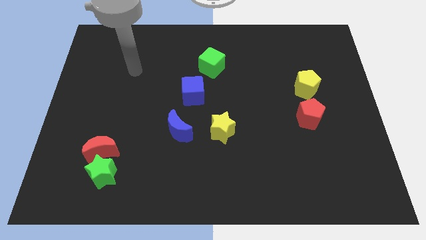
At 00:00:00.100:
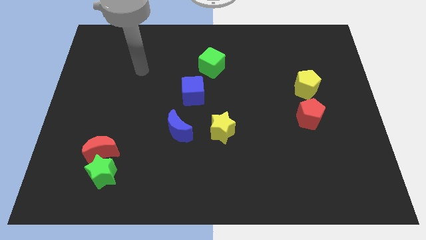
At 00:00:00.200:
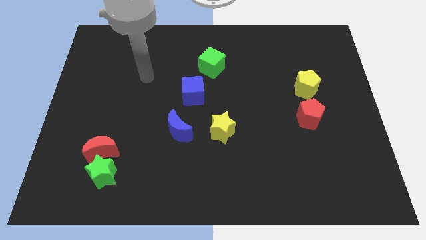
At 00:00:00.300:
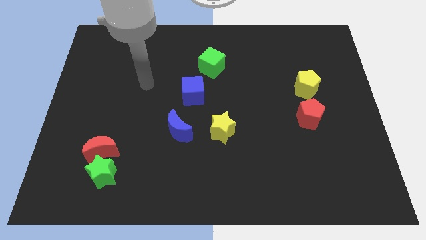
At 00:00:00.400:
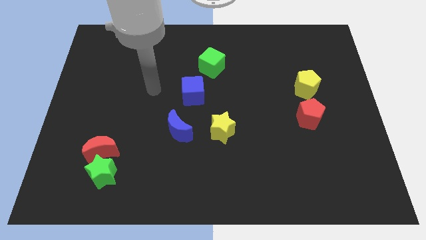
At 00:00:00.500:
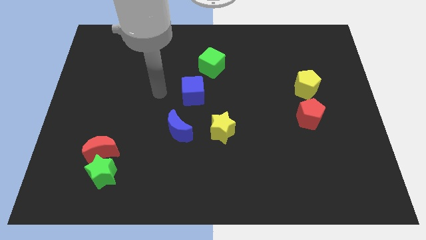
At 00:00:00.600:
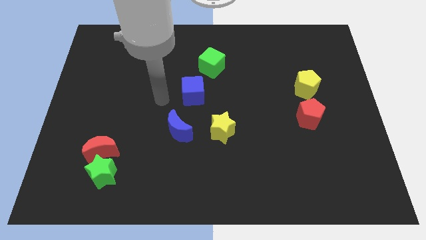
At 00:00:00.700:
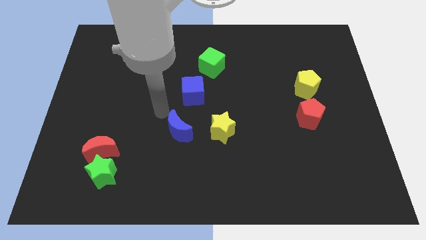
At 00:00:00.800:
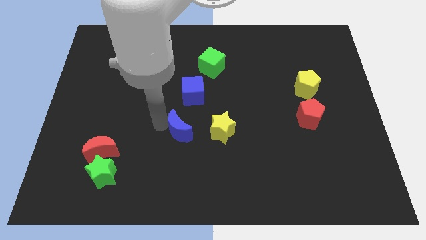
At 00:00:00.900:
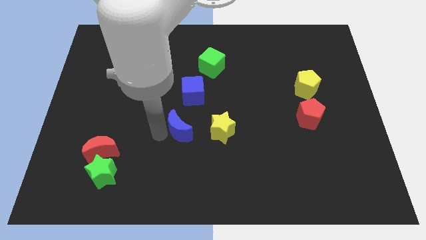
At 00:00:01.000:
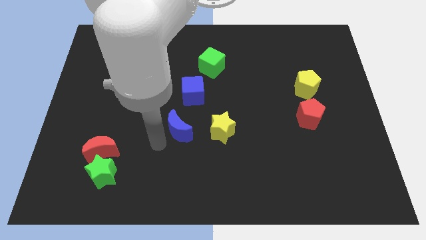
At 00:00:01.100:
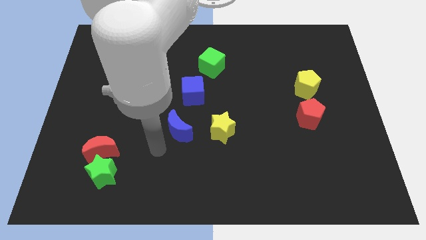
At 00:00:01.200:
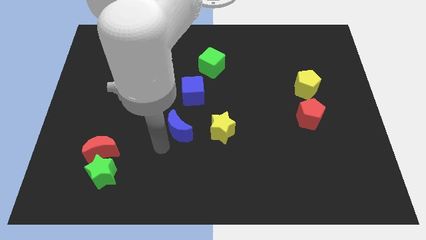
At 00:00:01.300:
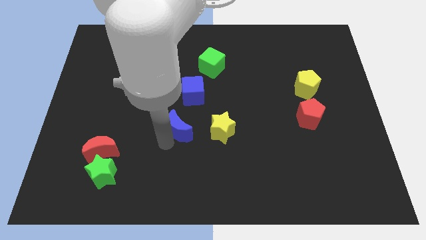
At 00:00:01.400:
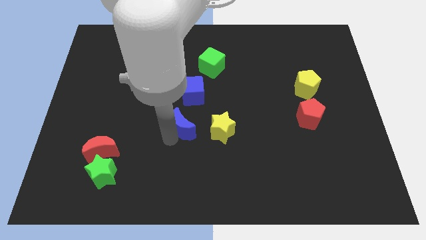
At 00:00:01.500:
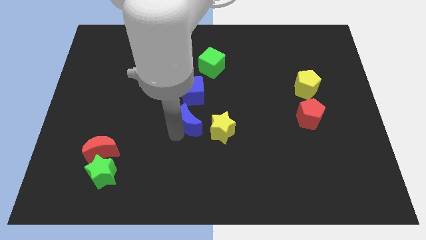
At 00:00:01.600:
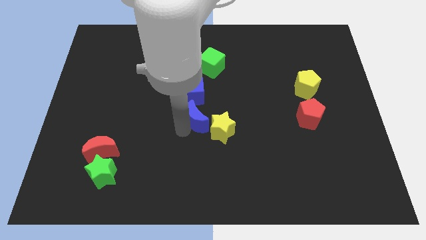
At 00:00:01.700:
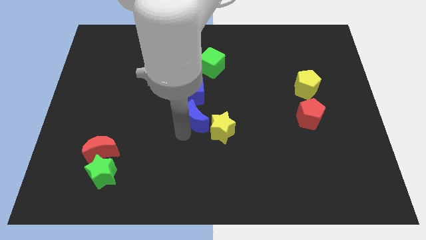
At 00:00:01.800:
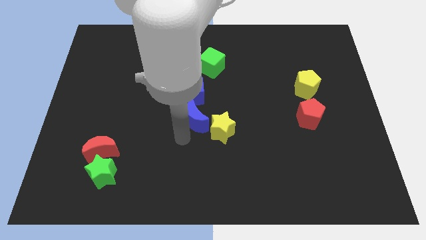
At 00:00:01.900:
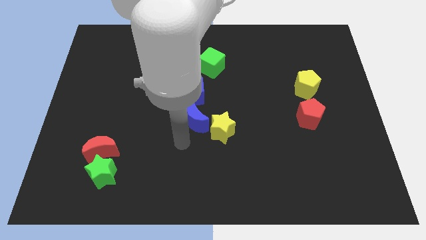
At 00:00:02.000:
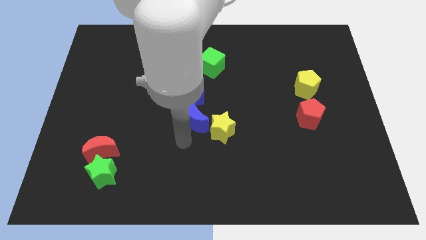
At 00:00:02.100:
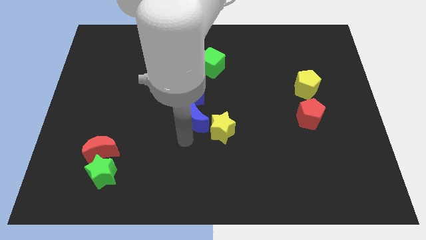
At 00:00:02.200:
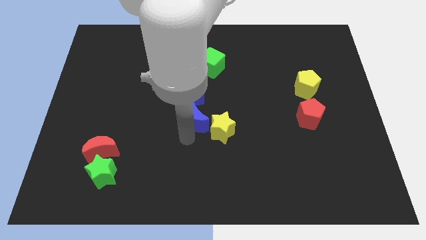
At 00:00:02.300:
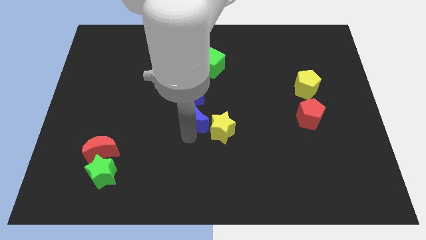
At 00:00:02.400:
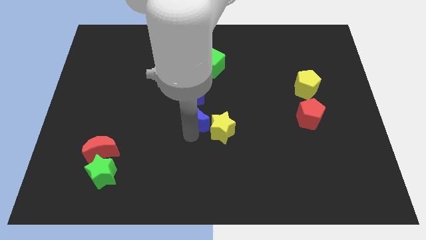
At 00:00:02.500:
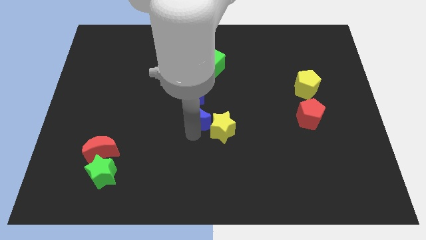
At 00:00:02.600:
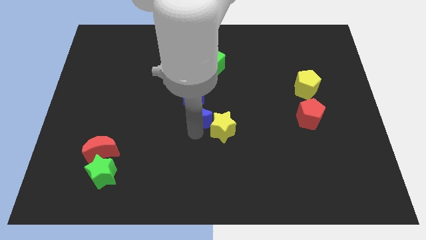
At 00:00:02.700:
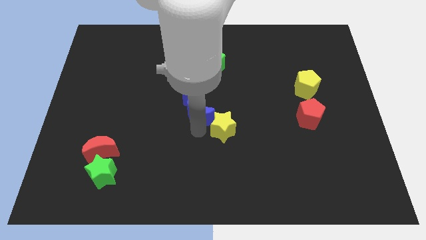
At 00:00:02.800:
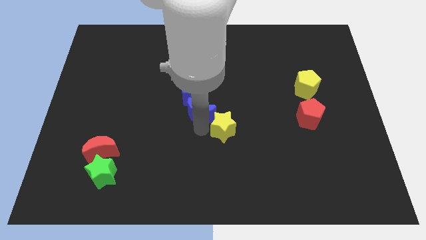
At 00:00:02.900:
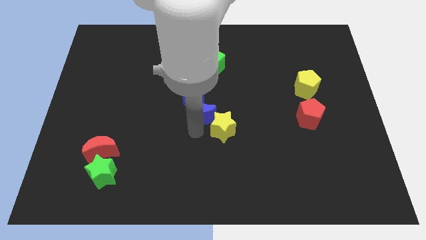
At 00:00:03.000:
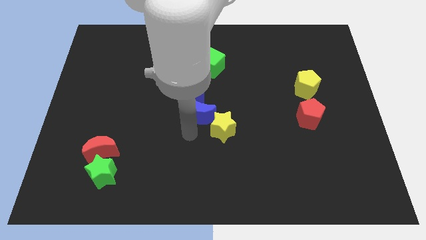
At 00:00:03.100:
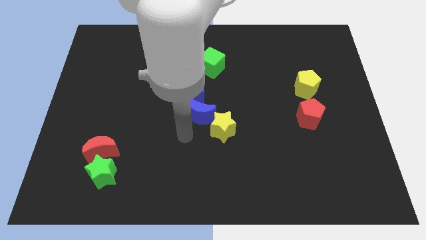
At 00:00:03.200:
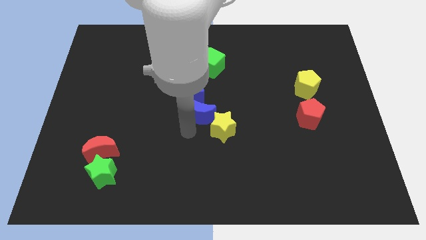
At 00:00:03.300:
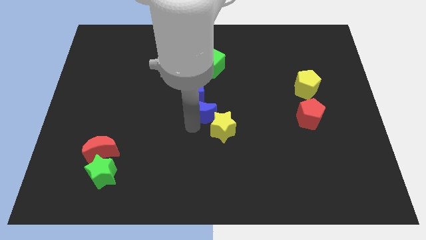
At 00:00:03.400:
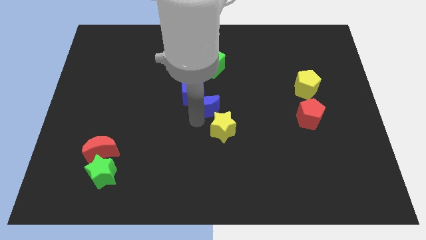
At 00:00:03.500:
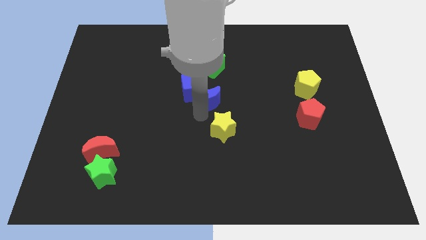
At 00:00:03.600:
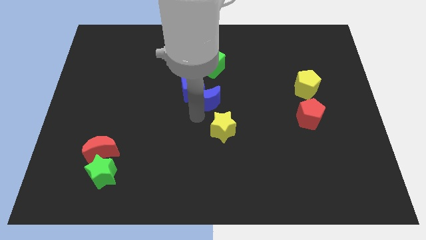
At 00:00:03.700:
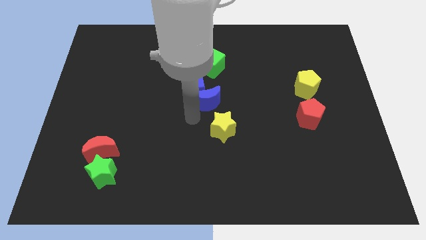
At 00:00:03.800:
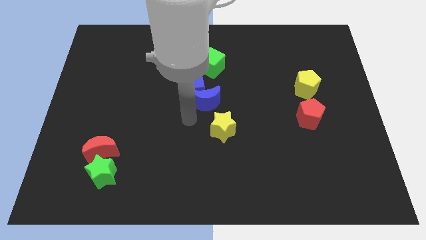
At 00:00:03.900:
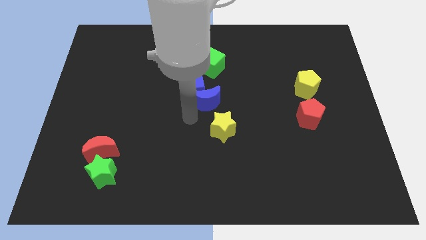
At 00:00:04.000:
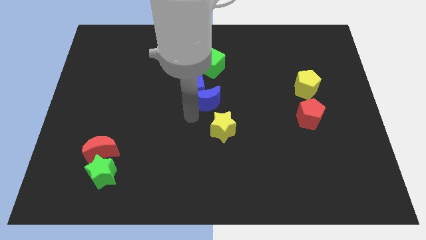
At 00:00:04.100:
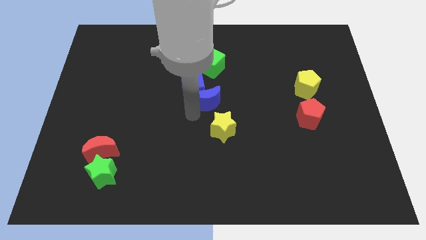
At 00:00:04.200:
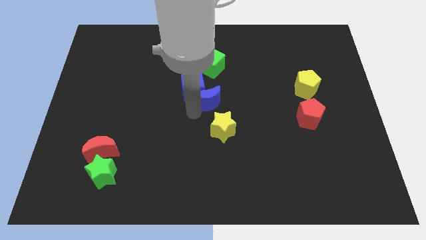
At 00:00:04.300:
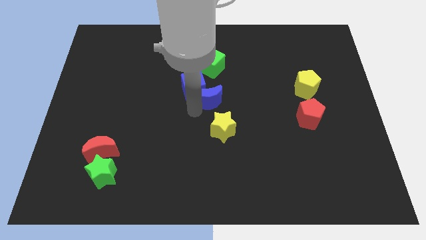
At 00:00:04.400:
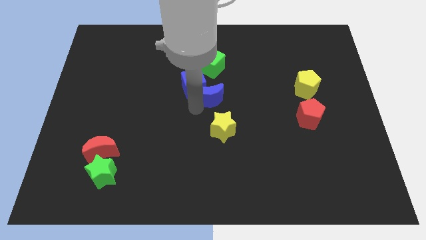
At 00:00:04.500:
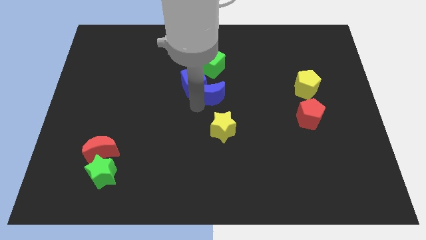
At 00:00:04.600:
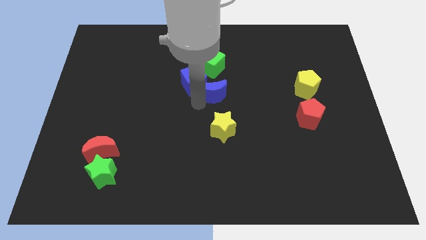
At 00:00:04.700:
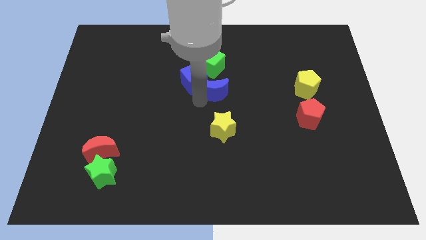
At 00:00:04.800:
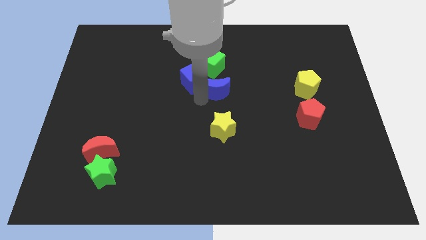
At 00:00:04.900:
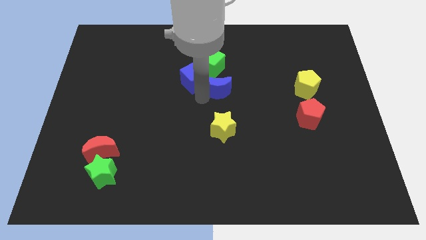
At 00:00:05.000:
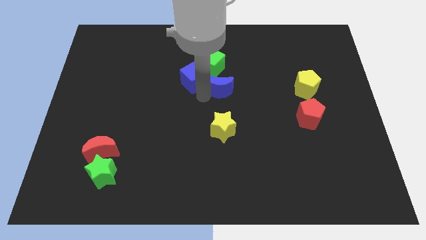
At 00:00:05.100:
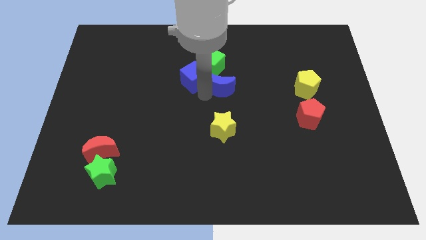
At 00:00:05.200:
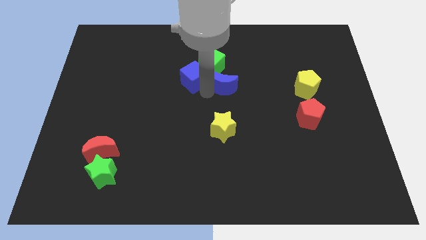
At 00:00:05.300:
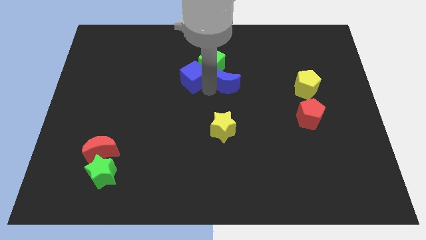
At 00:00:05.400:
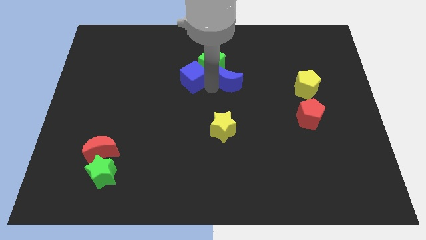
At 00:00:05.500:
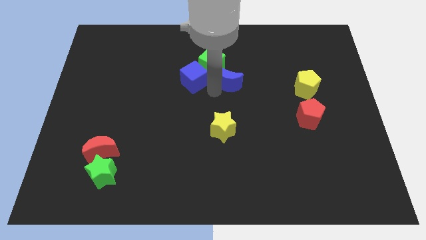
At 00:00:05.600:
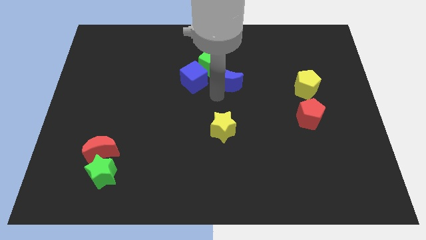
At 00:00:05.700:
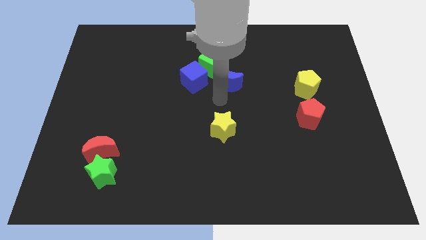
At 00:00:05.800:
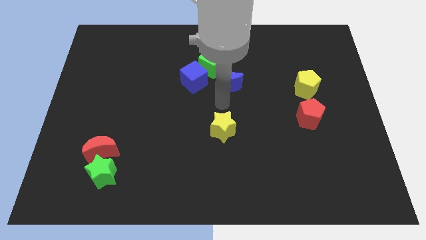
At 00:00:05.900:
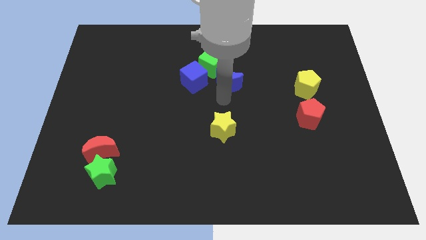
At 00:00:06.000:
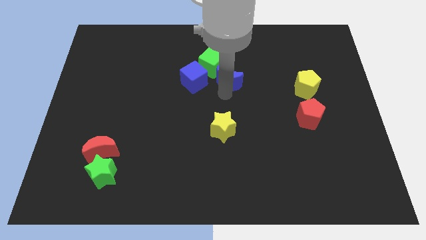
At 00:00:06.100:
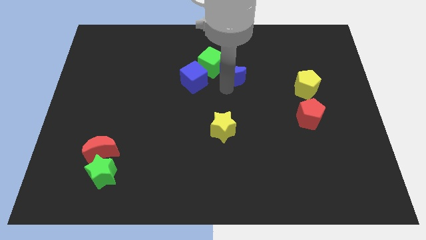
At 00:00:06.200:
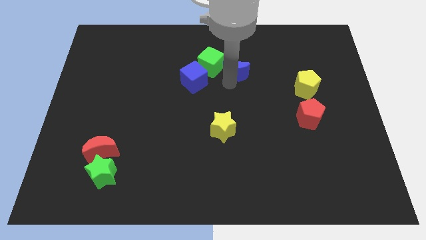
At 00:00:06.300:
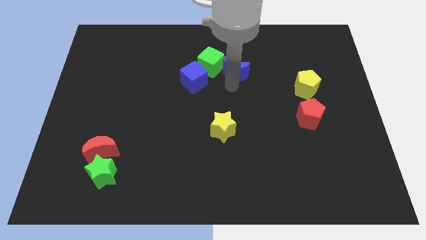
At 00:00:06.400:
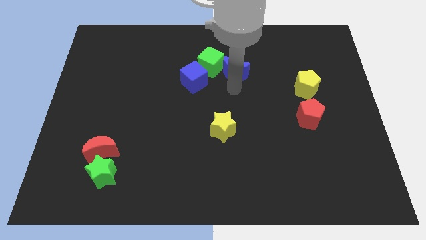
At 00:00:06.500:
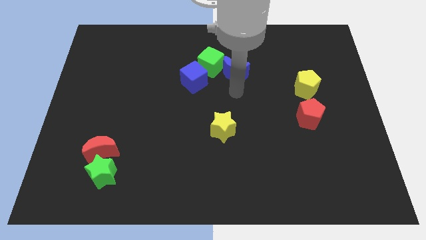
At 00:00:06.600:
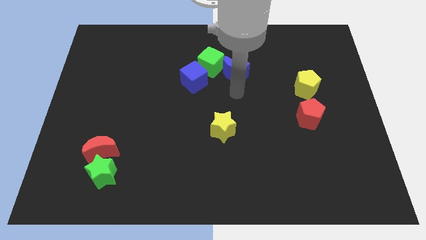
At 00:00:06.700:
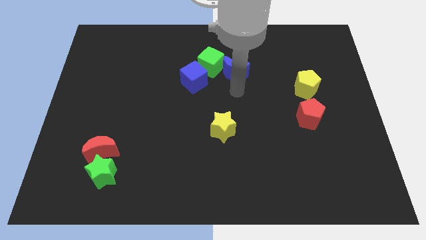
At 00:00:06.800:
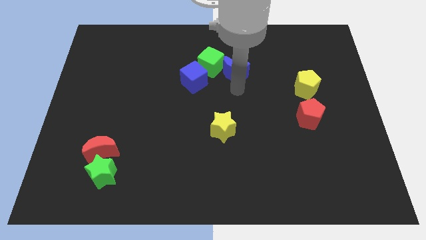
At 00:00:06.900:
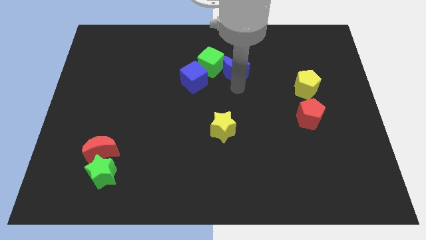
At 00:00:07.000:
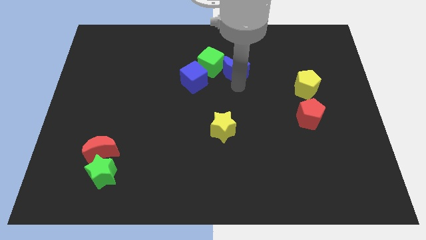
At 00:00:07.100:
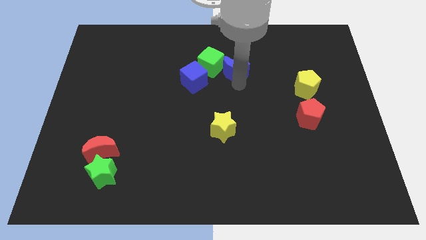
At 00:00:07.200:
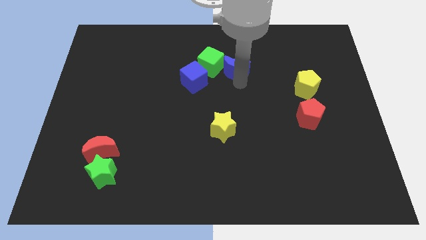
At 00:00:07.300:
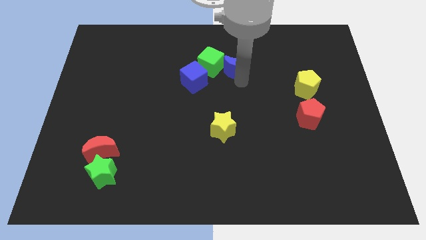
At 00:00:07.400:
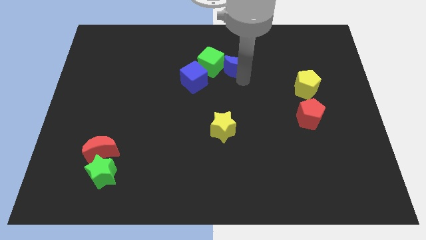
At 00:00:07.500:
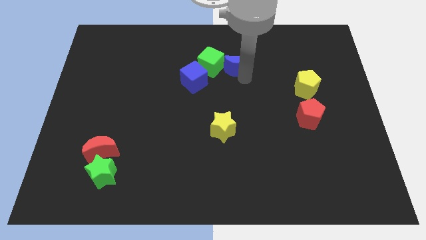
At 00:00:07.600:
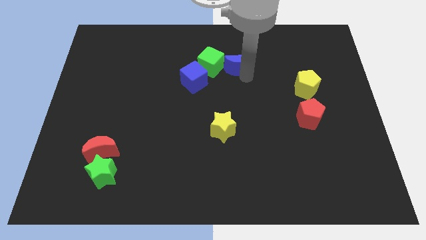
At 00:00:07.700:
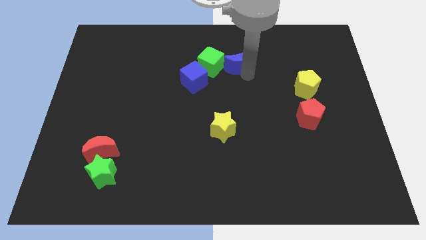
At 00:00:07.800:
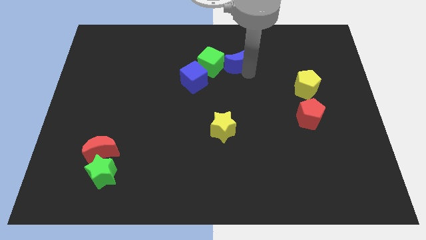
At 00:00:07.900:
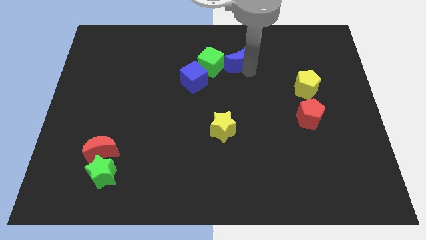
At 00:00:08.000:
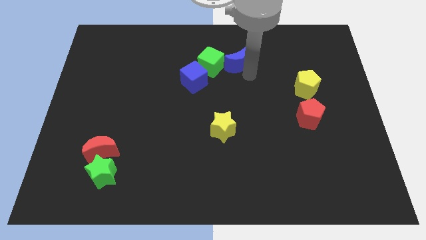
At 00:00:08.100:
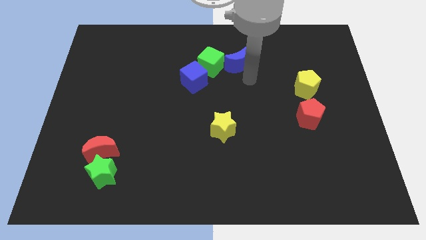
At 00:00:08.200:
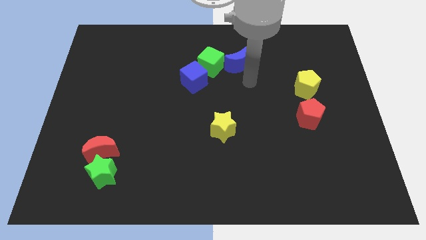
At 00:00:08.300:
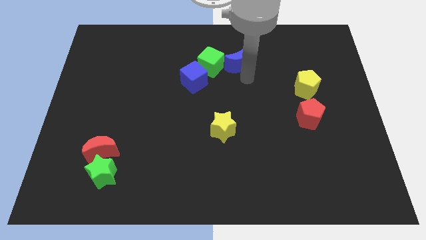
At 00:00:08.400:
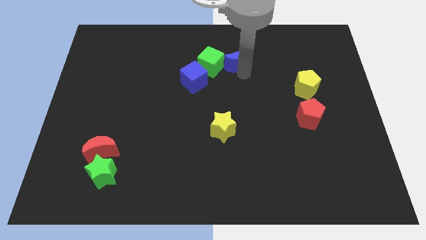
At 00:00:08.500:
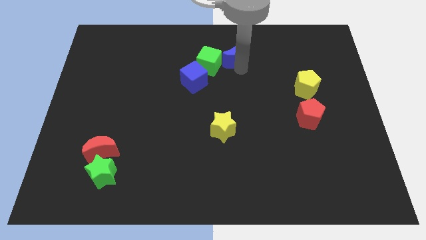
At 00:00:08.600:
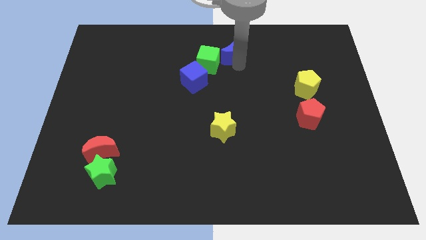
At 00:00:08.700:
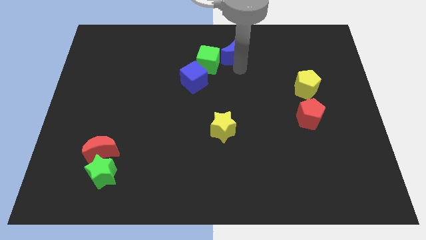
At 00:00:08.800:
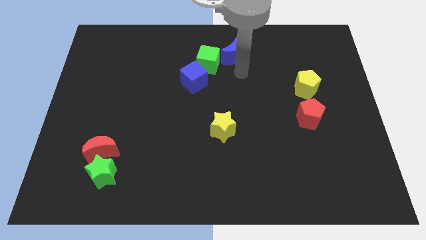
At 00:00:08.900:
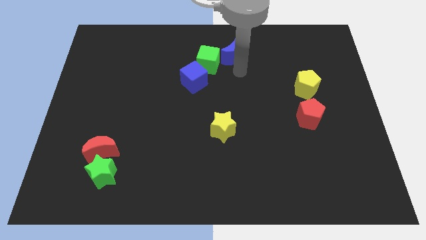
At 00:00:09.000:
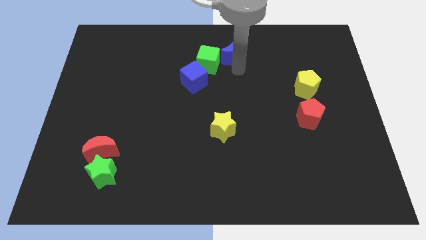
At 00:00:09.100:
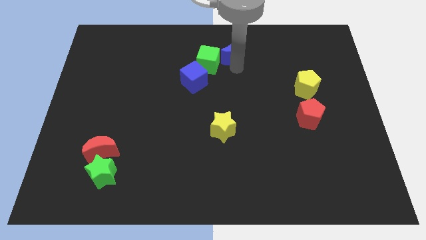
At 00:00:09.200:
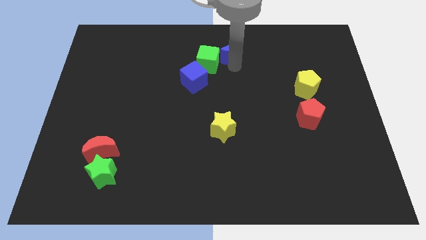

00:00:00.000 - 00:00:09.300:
put the blue moon to the top side
